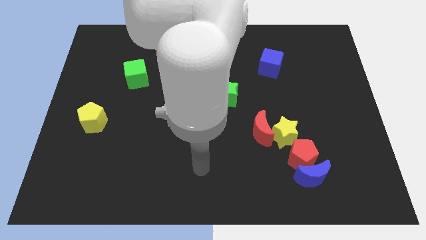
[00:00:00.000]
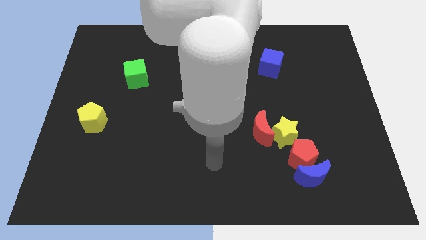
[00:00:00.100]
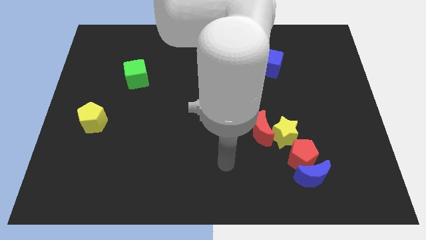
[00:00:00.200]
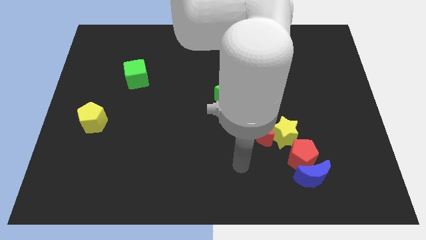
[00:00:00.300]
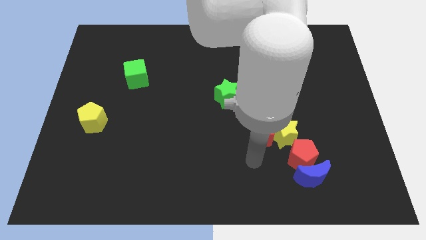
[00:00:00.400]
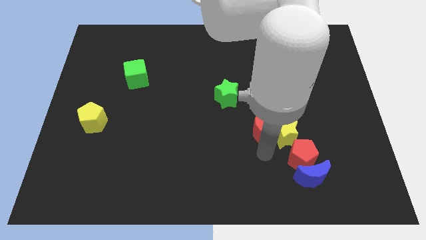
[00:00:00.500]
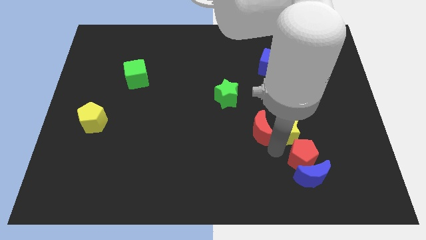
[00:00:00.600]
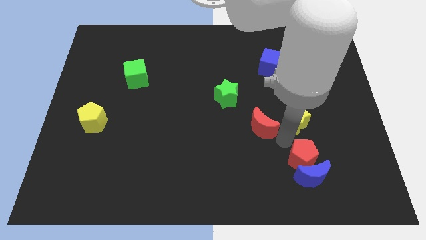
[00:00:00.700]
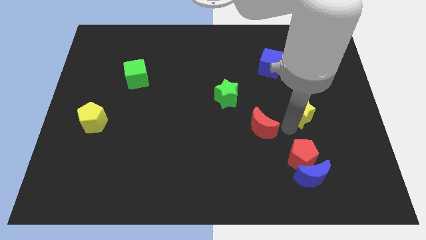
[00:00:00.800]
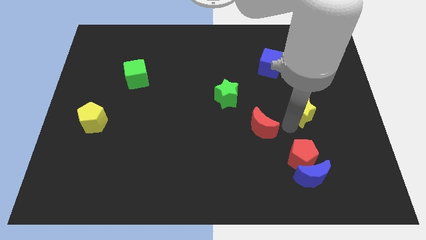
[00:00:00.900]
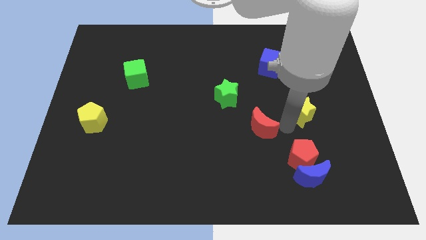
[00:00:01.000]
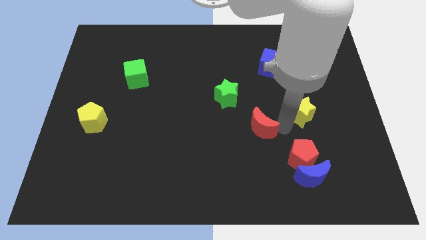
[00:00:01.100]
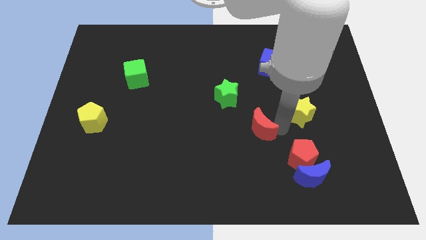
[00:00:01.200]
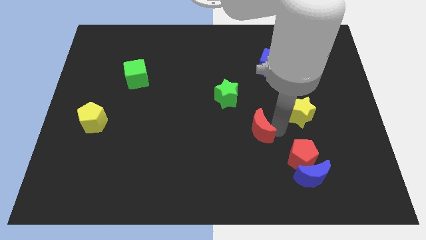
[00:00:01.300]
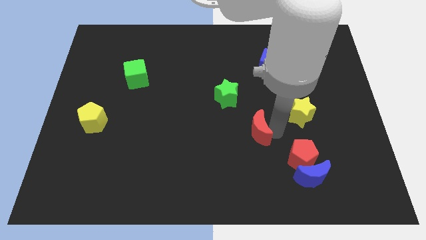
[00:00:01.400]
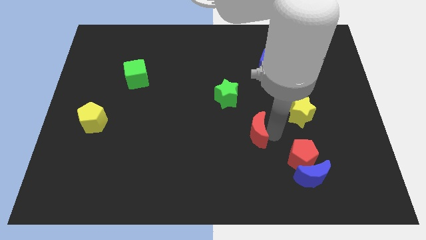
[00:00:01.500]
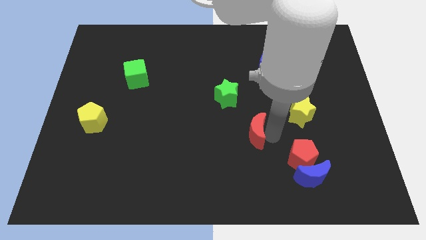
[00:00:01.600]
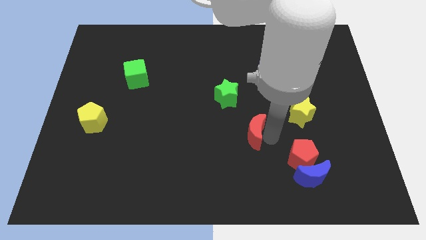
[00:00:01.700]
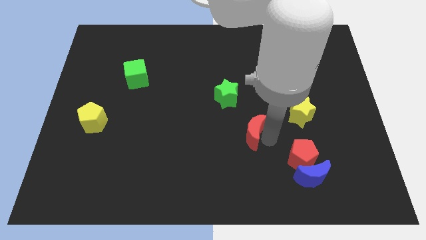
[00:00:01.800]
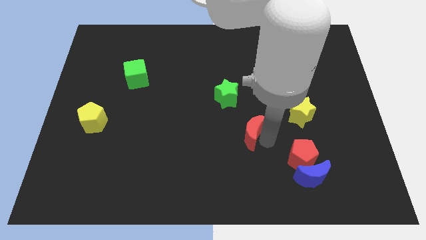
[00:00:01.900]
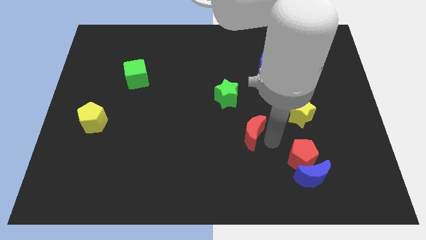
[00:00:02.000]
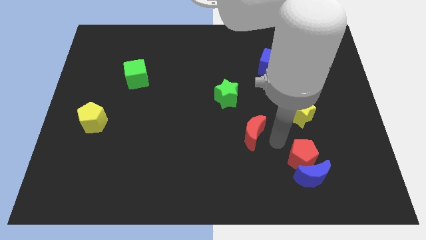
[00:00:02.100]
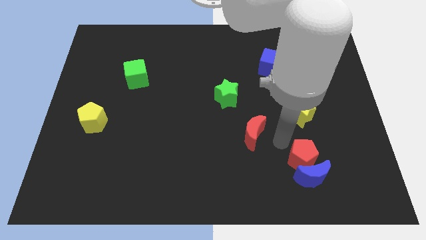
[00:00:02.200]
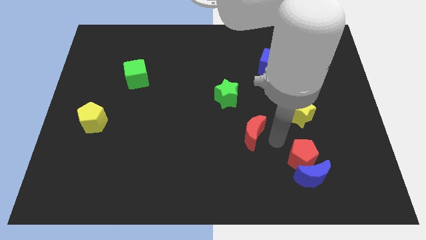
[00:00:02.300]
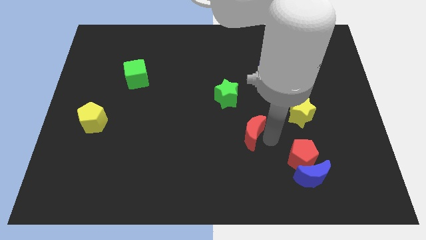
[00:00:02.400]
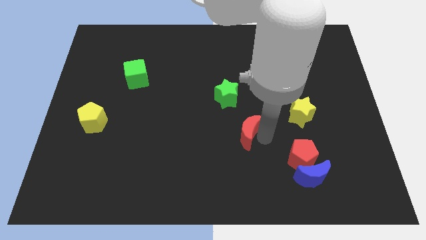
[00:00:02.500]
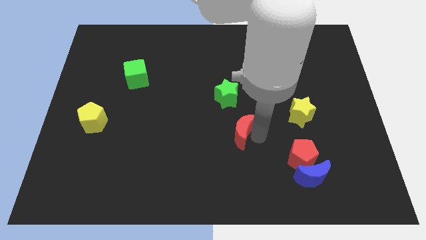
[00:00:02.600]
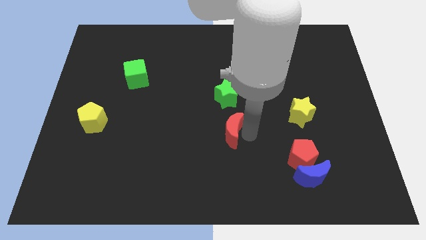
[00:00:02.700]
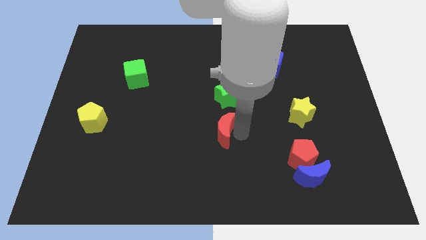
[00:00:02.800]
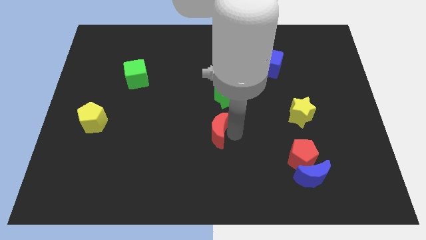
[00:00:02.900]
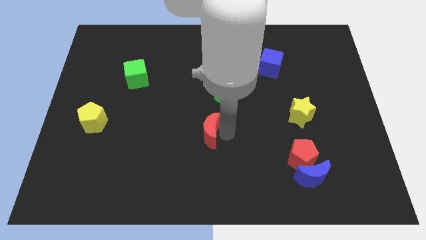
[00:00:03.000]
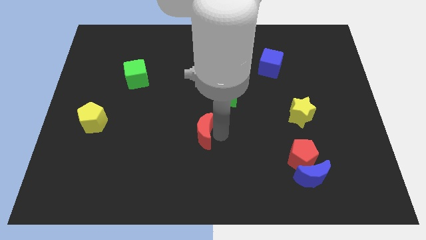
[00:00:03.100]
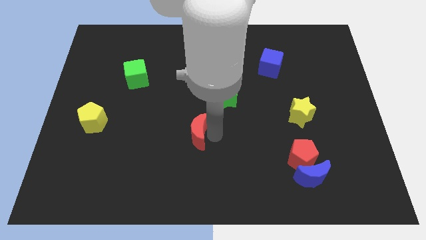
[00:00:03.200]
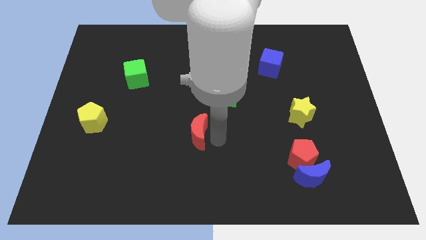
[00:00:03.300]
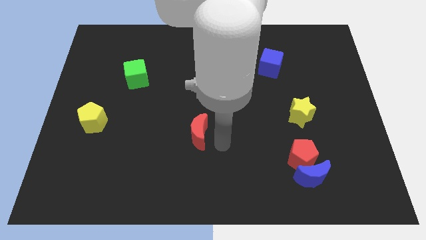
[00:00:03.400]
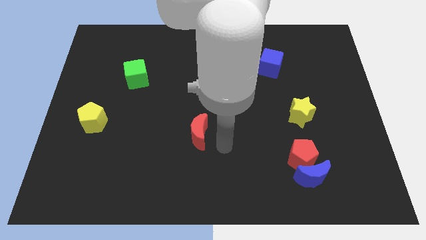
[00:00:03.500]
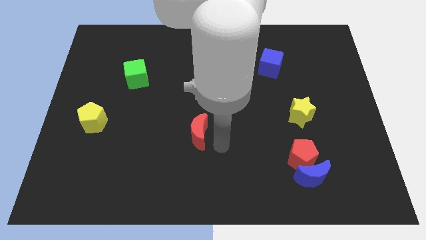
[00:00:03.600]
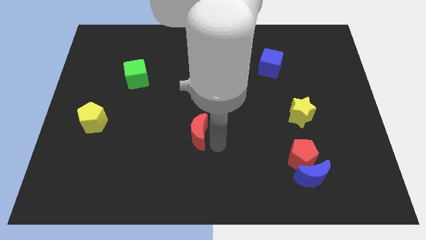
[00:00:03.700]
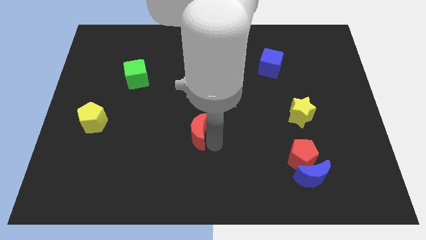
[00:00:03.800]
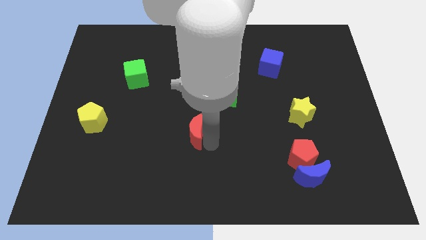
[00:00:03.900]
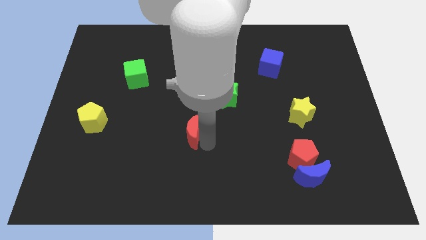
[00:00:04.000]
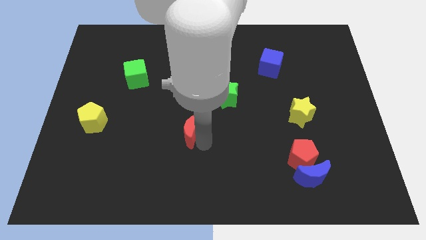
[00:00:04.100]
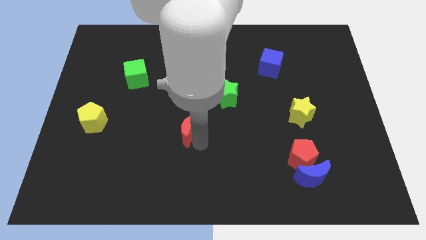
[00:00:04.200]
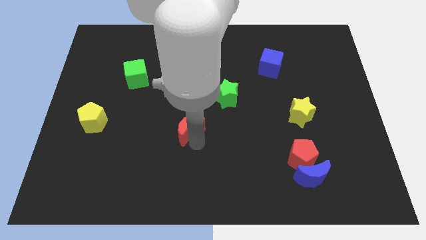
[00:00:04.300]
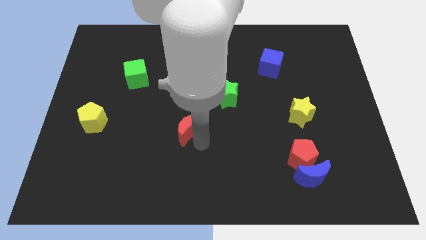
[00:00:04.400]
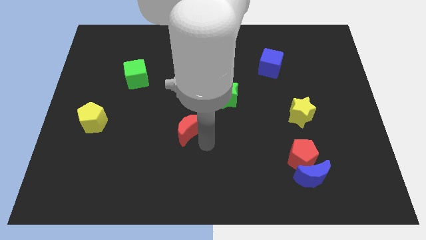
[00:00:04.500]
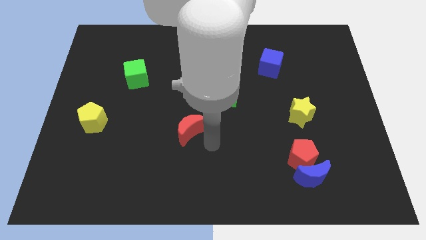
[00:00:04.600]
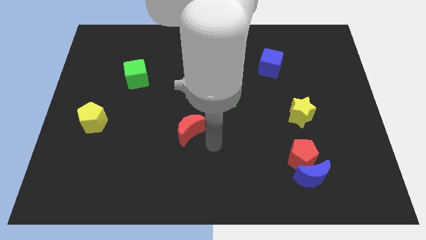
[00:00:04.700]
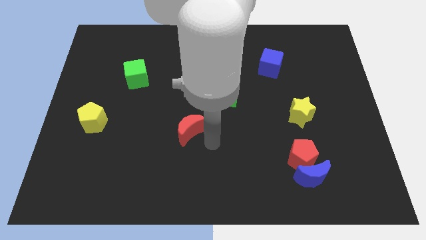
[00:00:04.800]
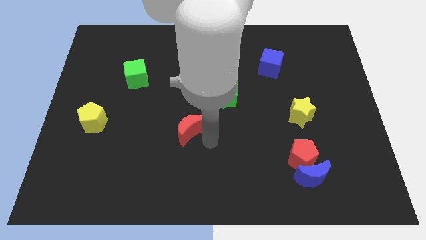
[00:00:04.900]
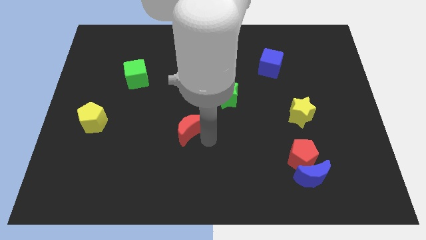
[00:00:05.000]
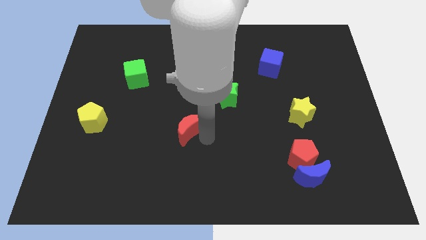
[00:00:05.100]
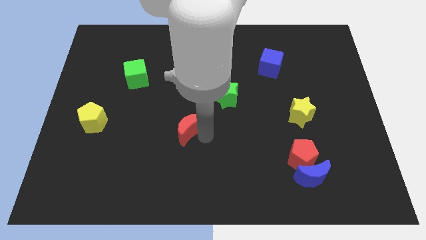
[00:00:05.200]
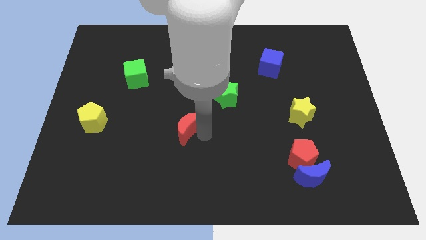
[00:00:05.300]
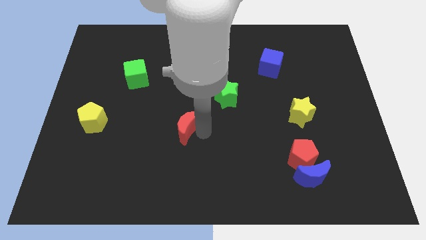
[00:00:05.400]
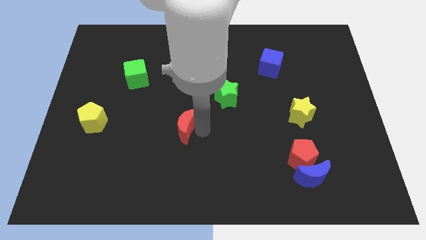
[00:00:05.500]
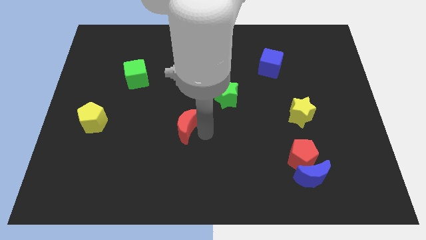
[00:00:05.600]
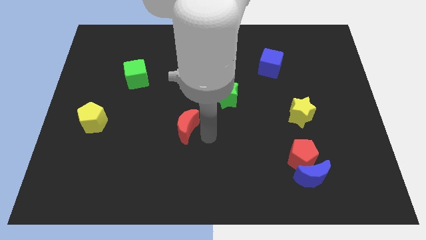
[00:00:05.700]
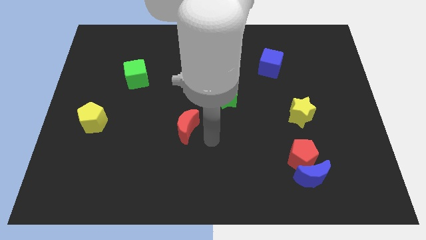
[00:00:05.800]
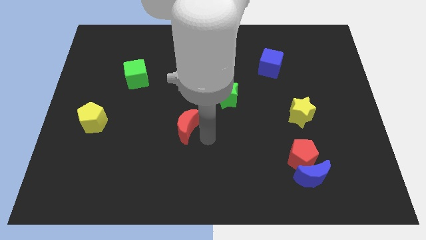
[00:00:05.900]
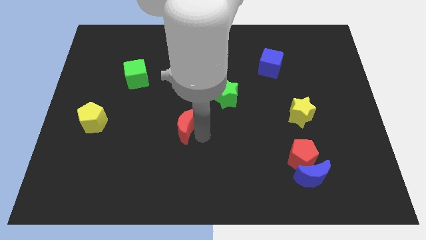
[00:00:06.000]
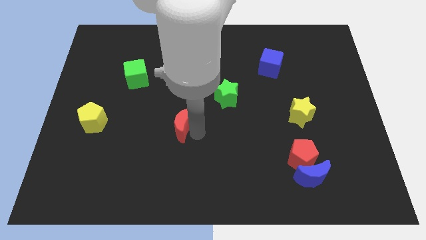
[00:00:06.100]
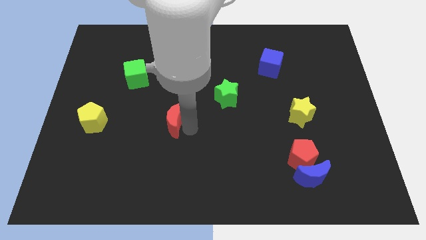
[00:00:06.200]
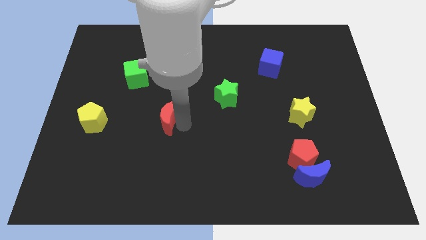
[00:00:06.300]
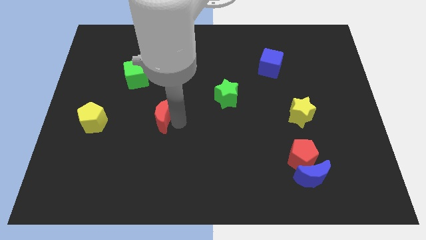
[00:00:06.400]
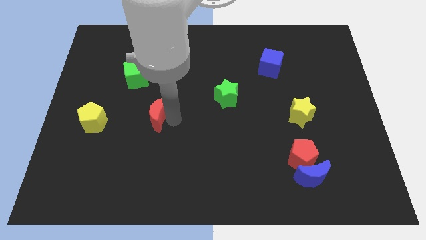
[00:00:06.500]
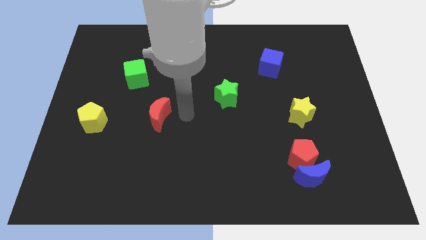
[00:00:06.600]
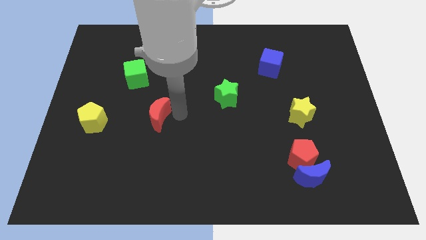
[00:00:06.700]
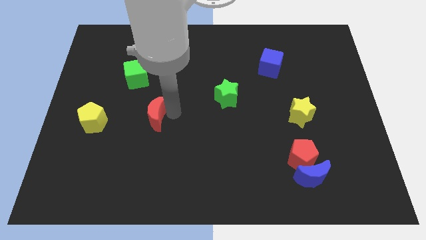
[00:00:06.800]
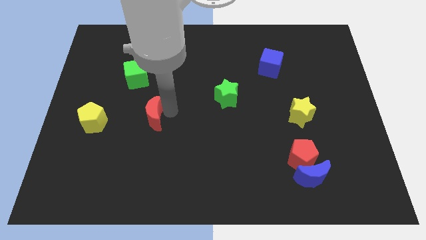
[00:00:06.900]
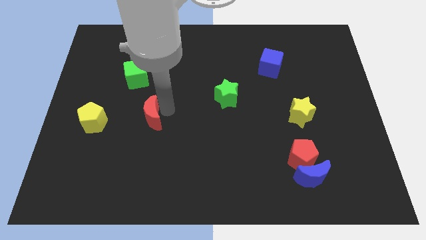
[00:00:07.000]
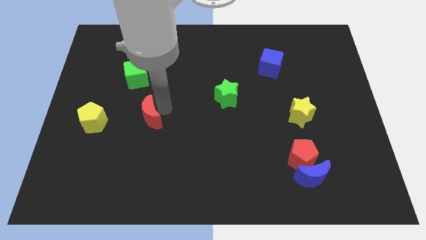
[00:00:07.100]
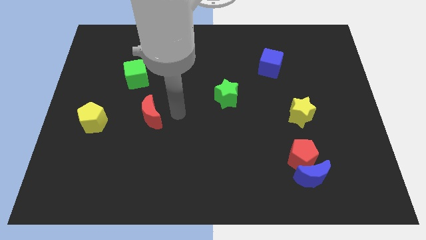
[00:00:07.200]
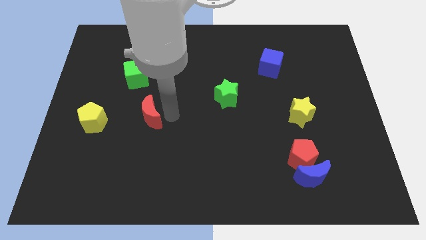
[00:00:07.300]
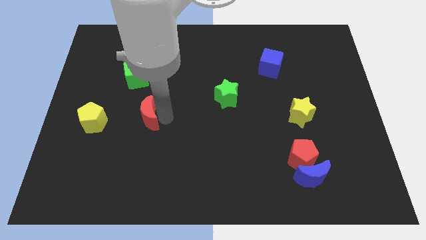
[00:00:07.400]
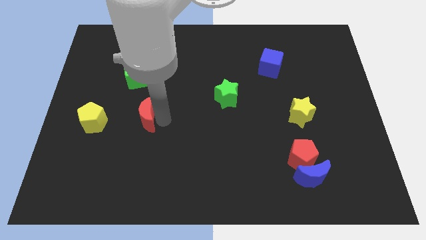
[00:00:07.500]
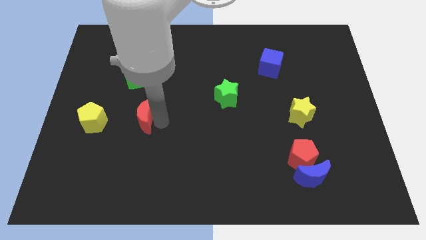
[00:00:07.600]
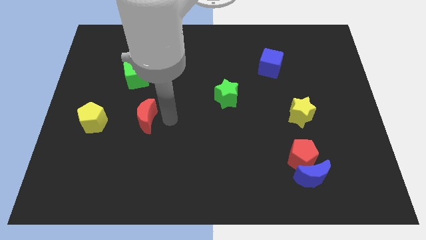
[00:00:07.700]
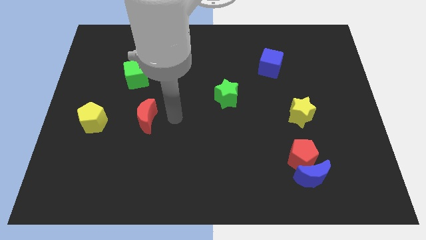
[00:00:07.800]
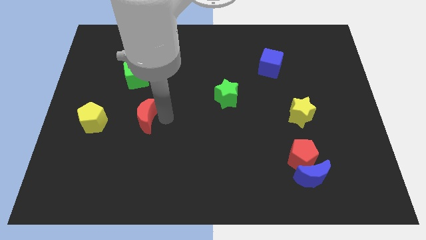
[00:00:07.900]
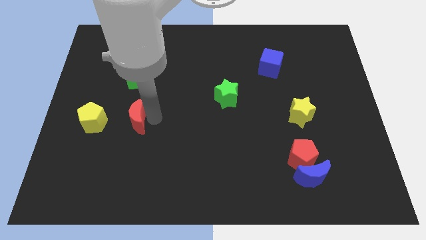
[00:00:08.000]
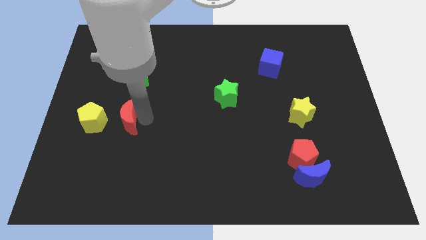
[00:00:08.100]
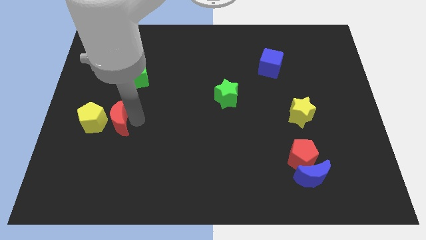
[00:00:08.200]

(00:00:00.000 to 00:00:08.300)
slide the red moon to the yellow pentagon
